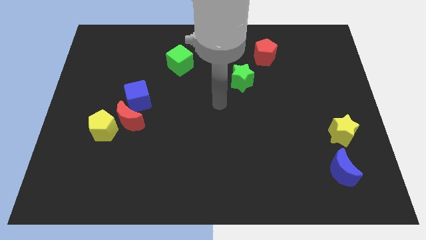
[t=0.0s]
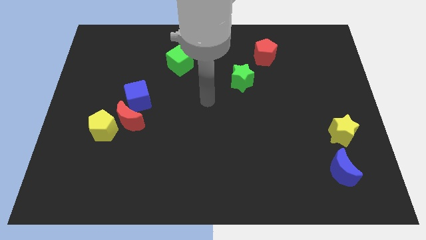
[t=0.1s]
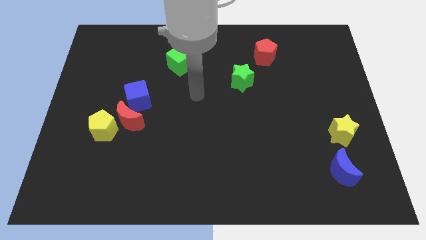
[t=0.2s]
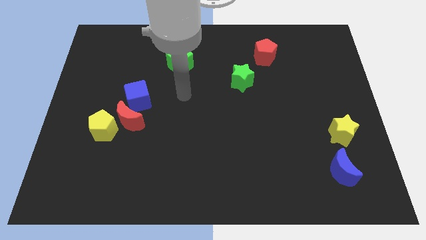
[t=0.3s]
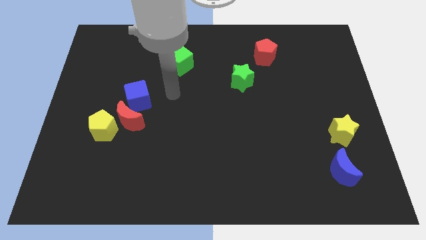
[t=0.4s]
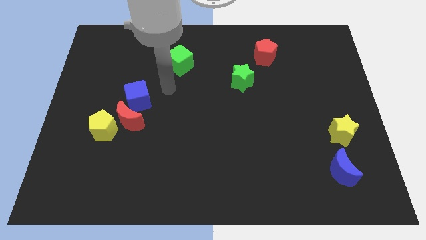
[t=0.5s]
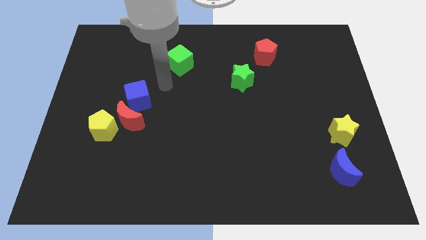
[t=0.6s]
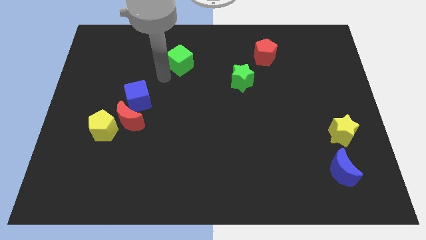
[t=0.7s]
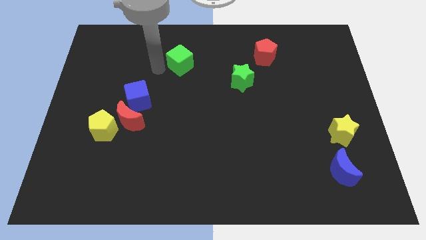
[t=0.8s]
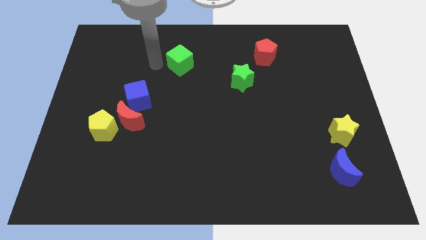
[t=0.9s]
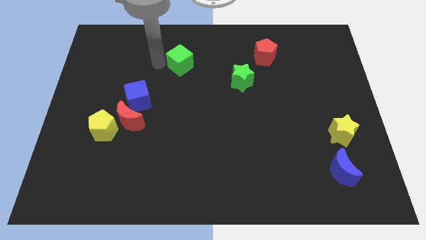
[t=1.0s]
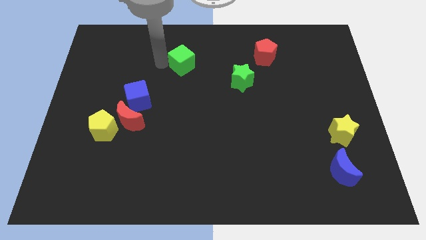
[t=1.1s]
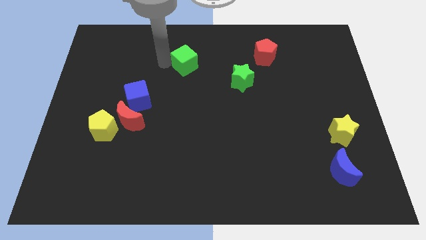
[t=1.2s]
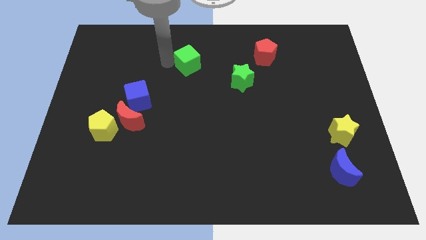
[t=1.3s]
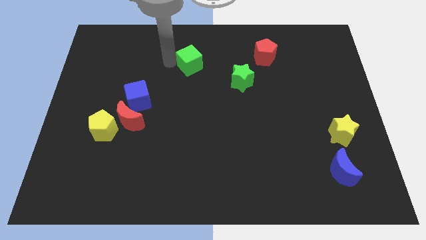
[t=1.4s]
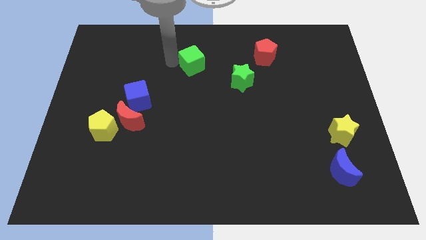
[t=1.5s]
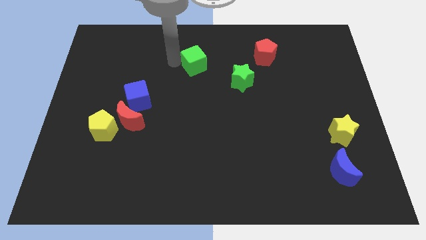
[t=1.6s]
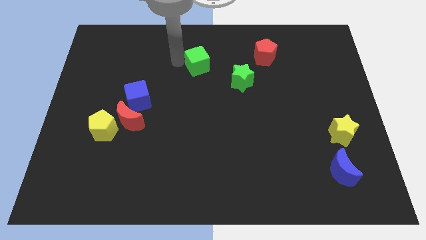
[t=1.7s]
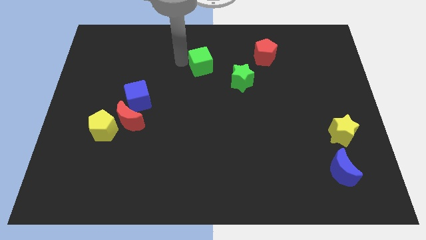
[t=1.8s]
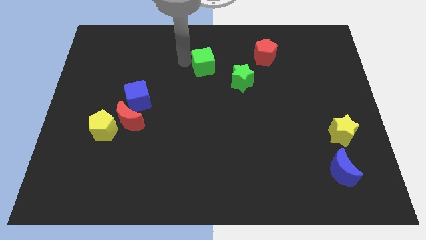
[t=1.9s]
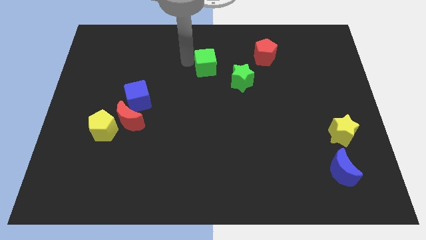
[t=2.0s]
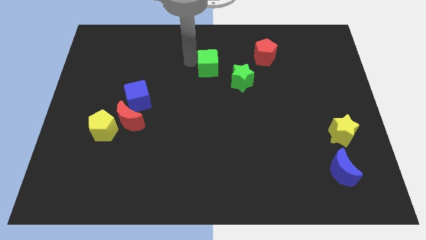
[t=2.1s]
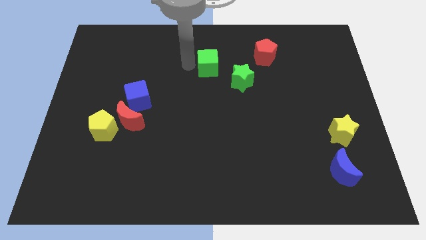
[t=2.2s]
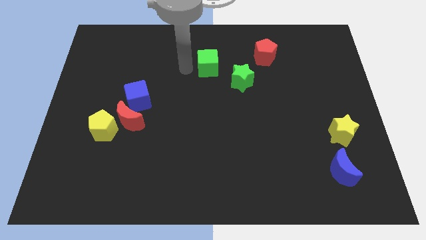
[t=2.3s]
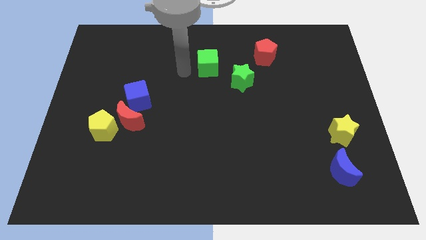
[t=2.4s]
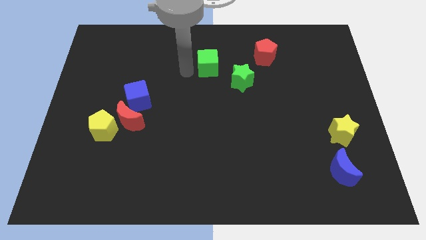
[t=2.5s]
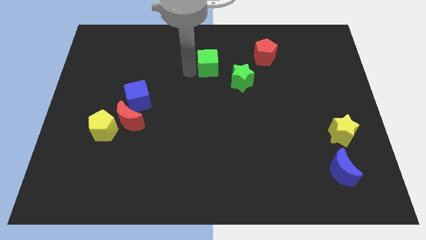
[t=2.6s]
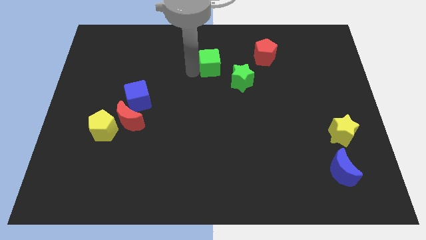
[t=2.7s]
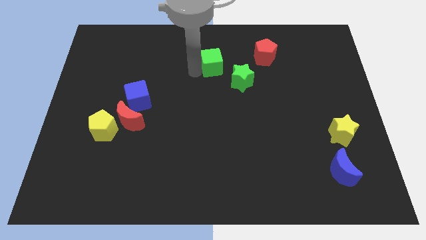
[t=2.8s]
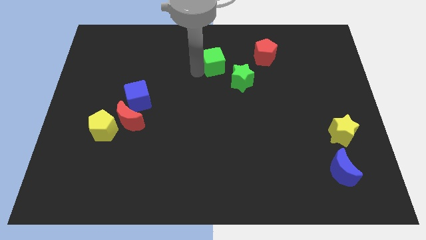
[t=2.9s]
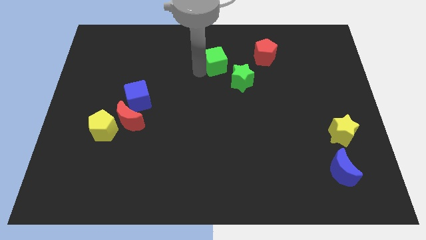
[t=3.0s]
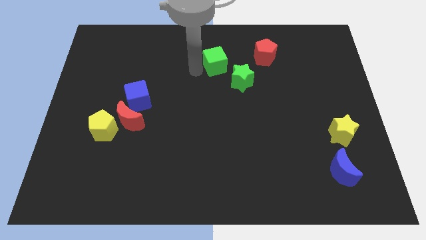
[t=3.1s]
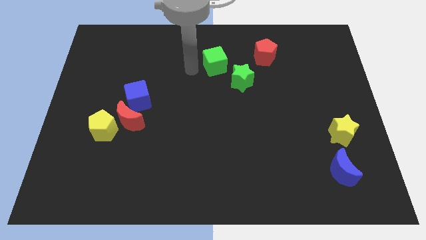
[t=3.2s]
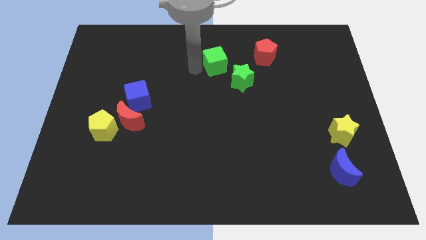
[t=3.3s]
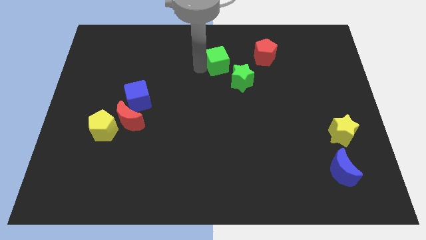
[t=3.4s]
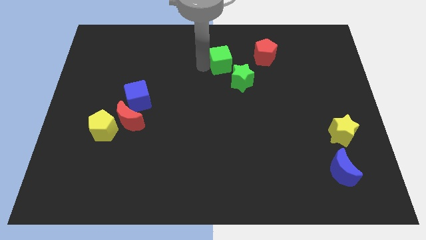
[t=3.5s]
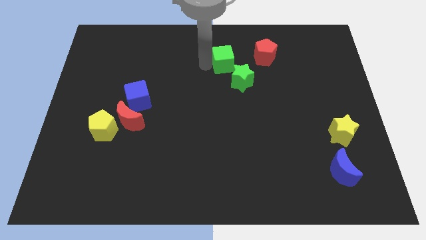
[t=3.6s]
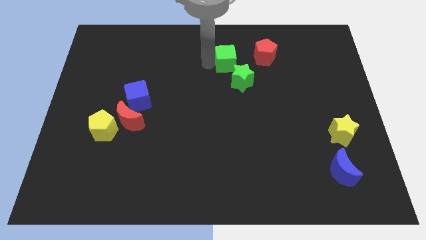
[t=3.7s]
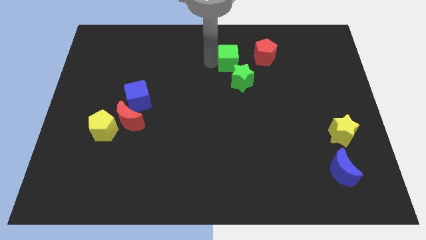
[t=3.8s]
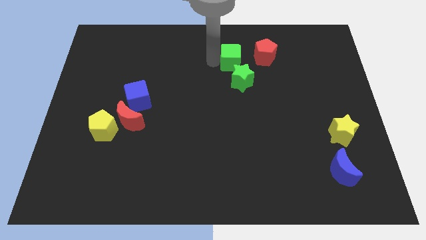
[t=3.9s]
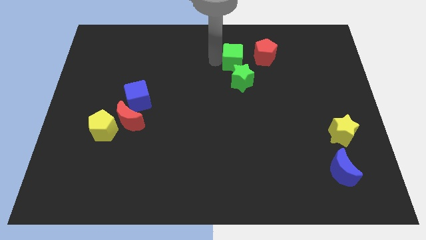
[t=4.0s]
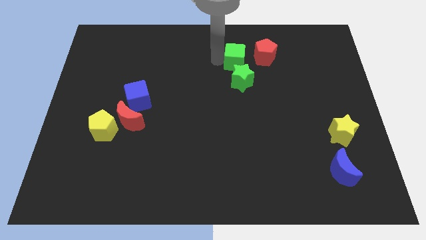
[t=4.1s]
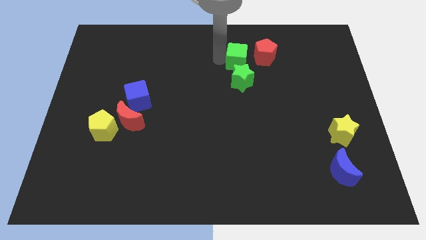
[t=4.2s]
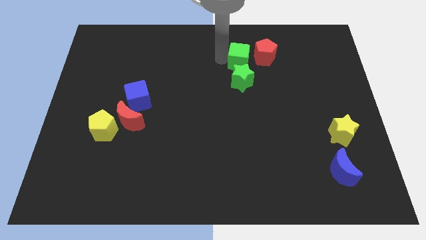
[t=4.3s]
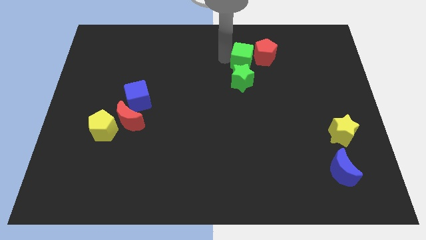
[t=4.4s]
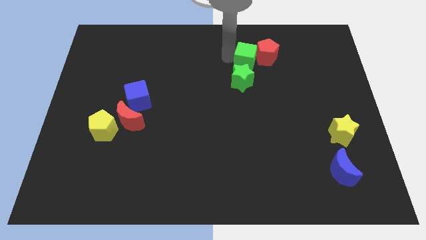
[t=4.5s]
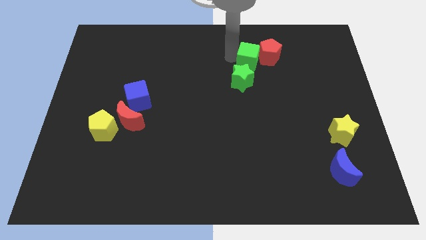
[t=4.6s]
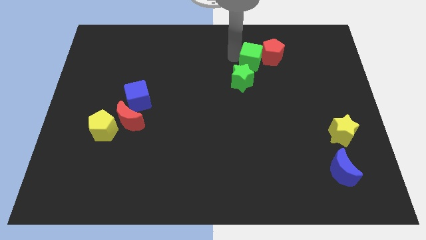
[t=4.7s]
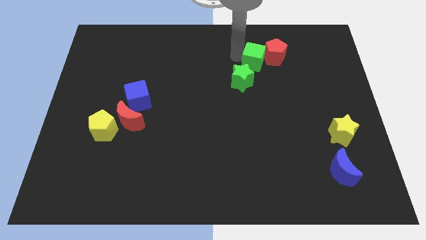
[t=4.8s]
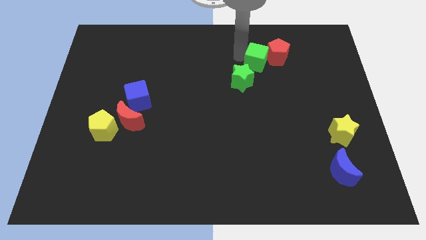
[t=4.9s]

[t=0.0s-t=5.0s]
slide the green cube right

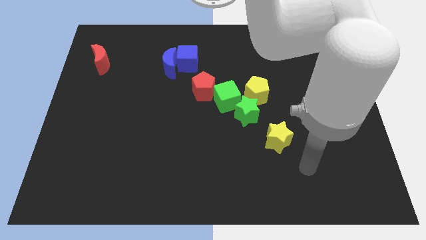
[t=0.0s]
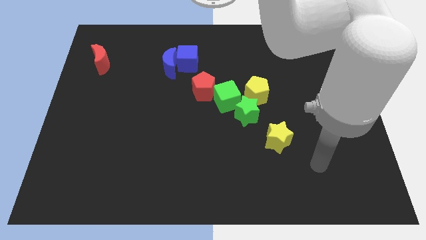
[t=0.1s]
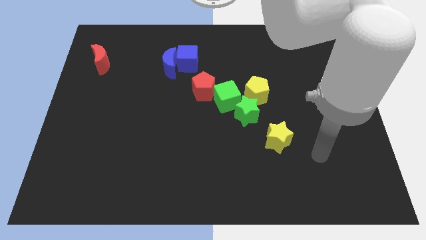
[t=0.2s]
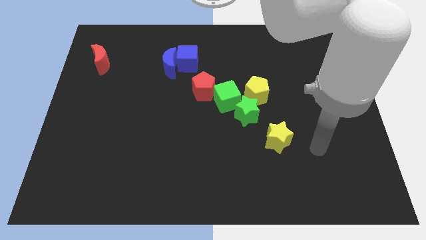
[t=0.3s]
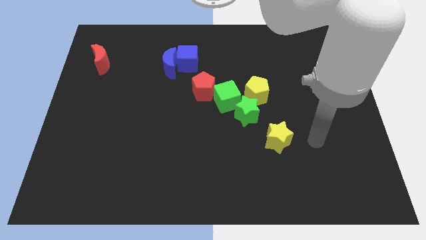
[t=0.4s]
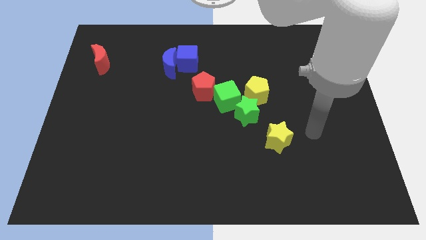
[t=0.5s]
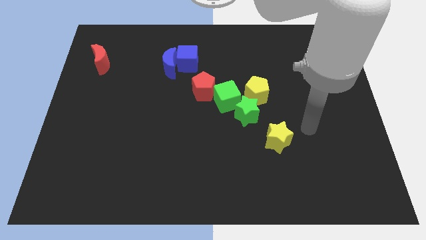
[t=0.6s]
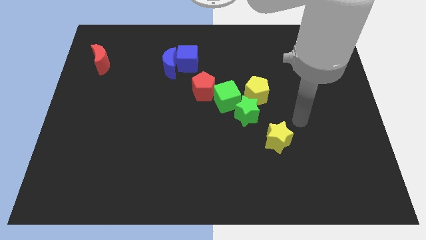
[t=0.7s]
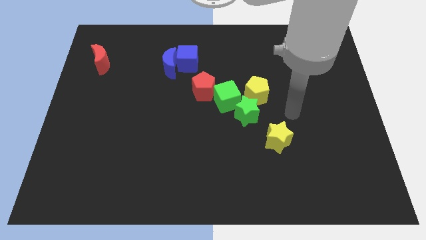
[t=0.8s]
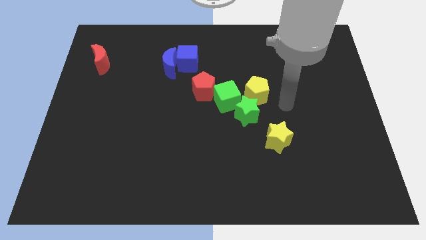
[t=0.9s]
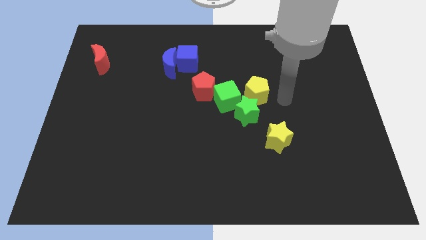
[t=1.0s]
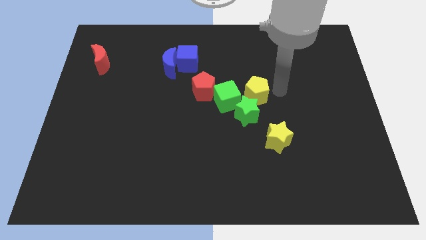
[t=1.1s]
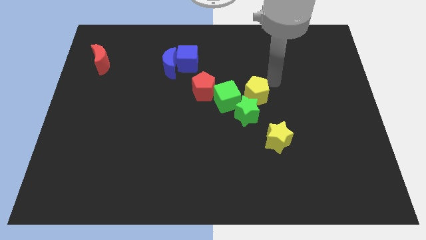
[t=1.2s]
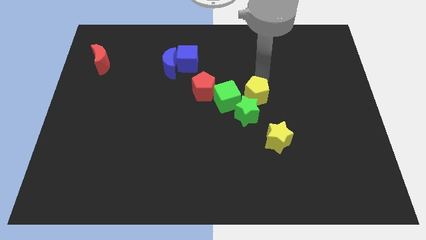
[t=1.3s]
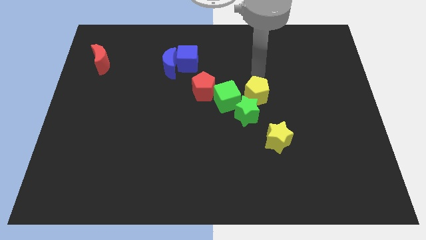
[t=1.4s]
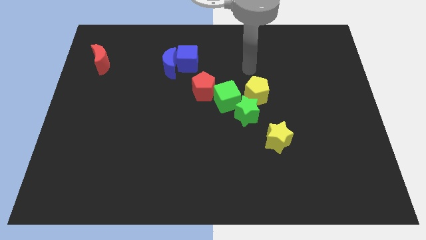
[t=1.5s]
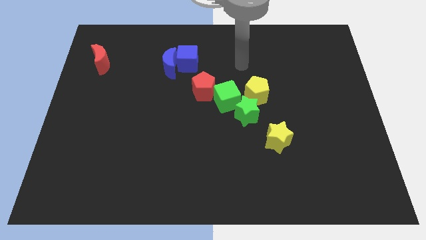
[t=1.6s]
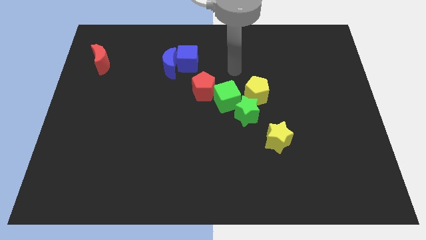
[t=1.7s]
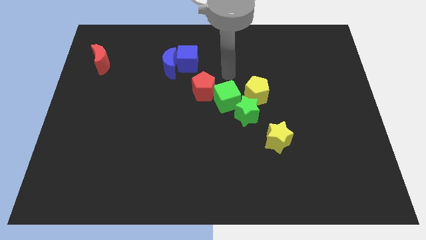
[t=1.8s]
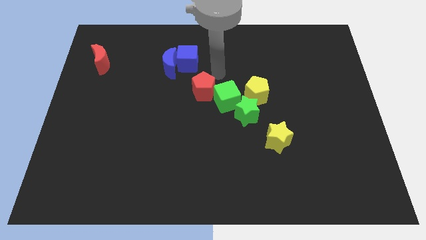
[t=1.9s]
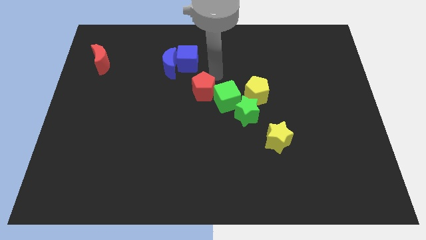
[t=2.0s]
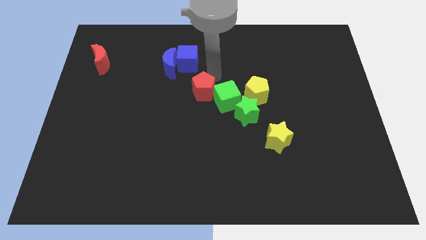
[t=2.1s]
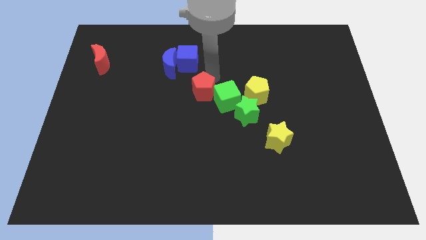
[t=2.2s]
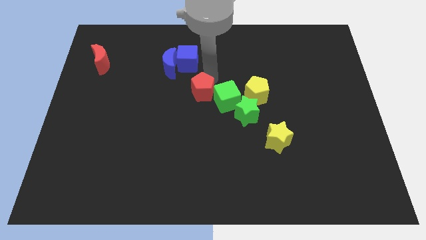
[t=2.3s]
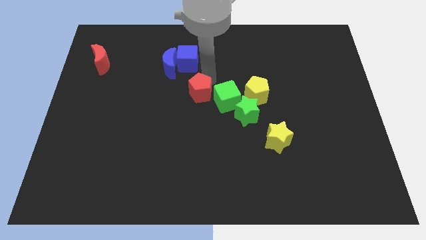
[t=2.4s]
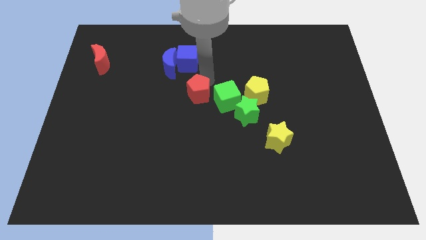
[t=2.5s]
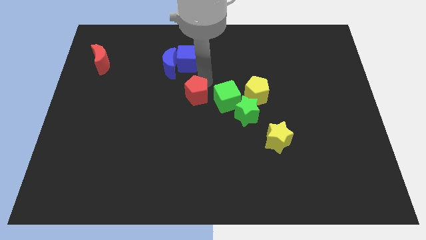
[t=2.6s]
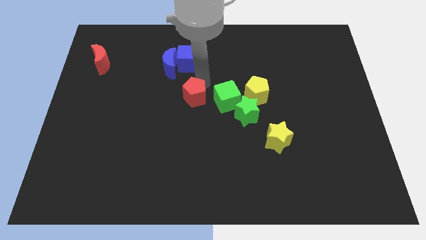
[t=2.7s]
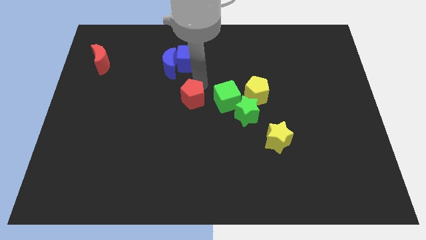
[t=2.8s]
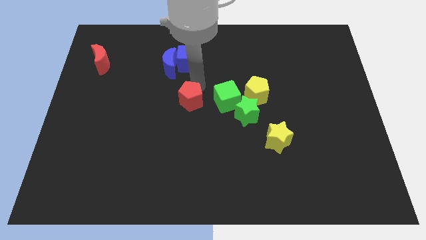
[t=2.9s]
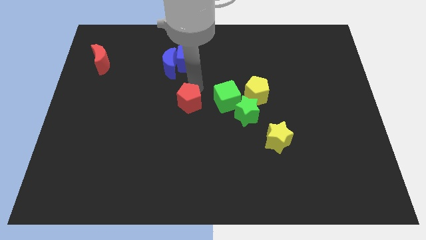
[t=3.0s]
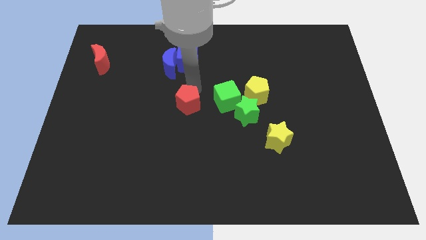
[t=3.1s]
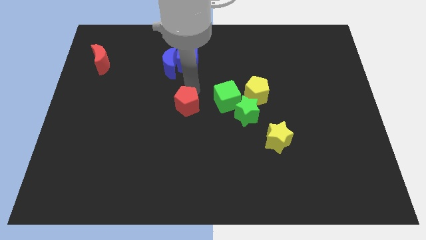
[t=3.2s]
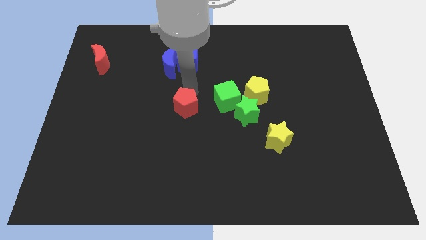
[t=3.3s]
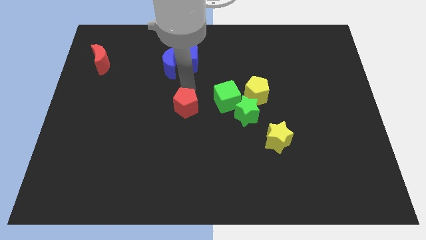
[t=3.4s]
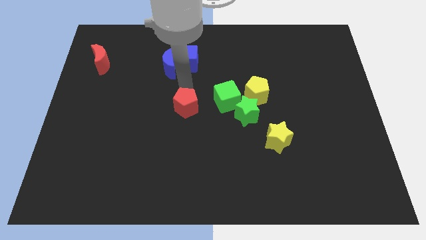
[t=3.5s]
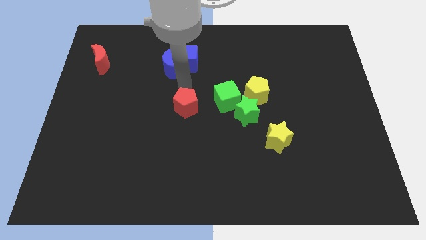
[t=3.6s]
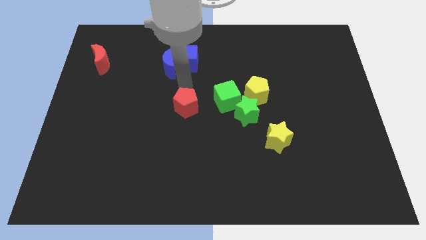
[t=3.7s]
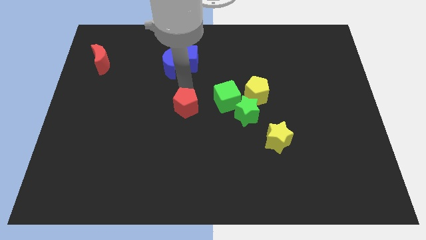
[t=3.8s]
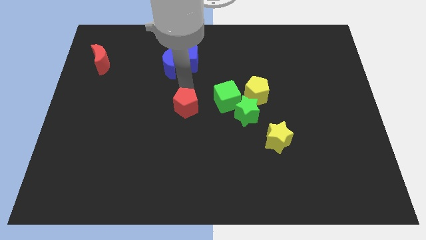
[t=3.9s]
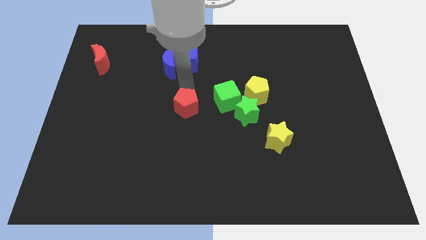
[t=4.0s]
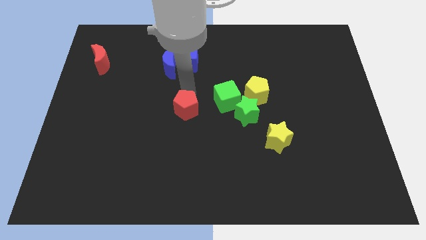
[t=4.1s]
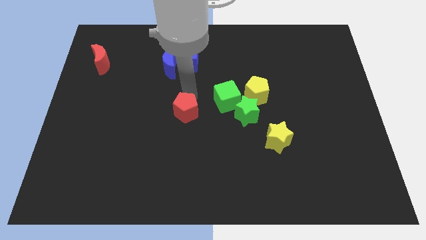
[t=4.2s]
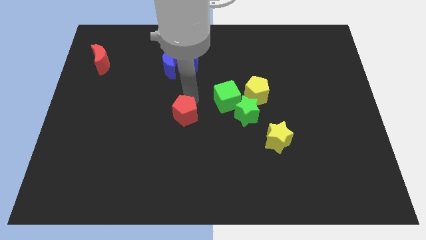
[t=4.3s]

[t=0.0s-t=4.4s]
slightly push the red pentagon downwards
